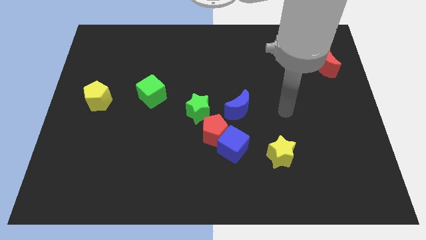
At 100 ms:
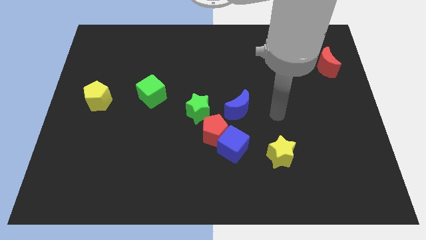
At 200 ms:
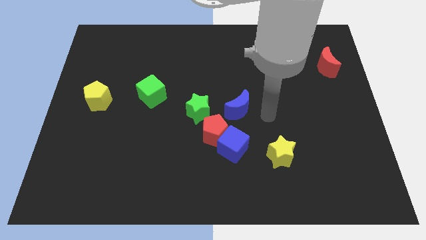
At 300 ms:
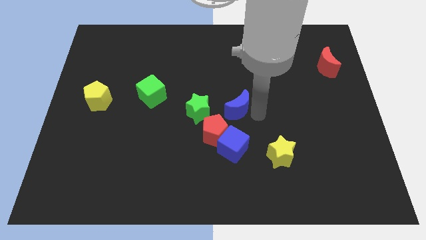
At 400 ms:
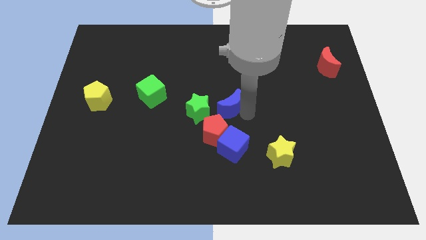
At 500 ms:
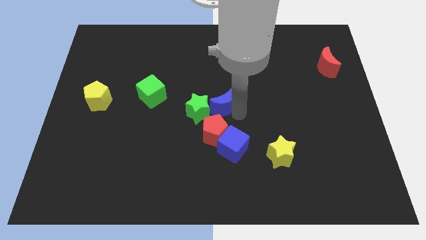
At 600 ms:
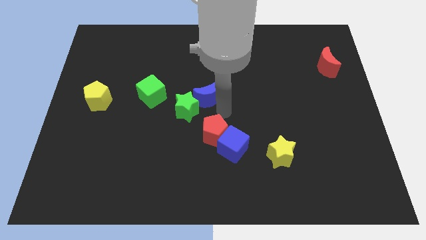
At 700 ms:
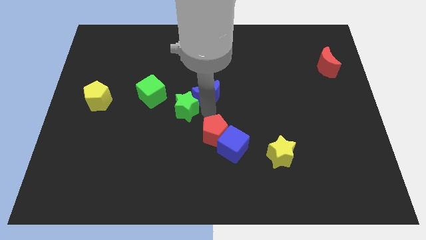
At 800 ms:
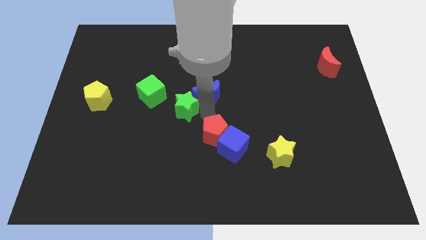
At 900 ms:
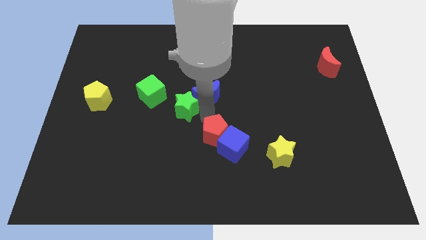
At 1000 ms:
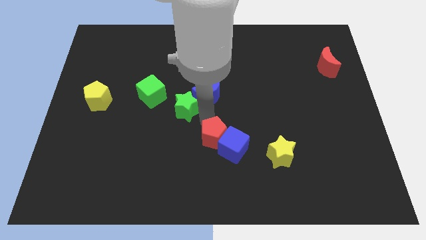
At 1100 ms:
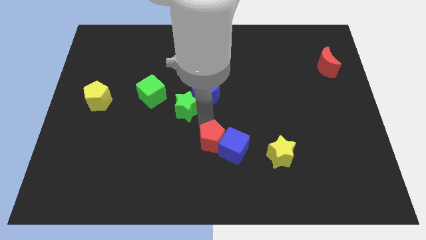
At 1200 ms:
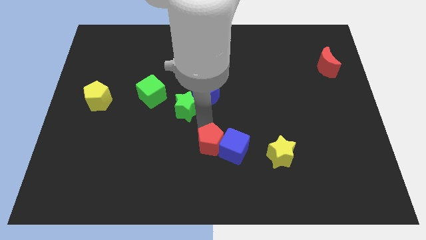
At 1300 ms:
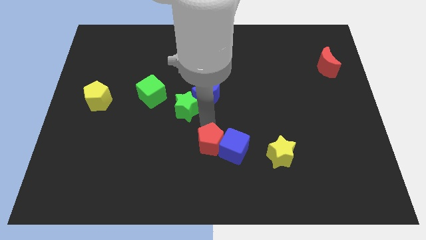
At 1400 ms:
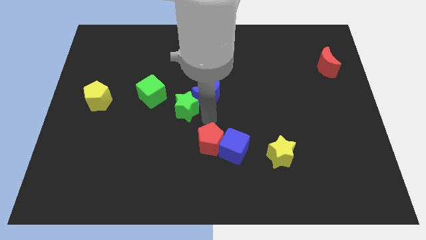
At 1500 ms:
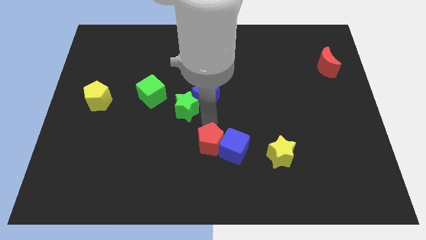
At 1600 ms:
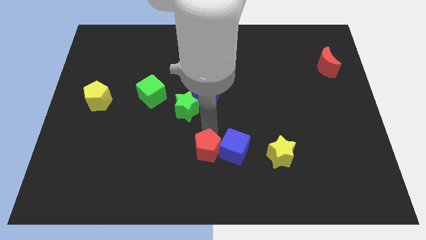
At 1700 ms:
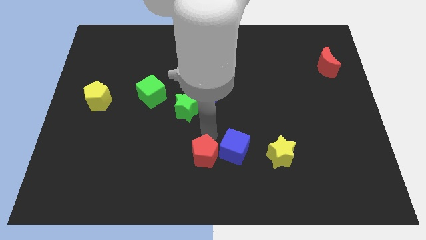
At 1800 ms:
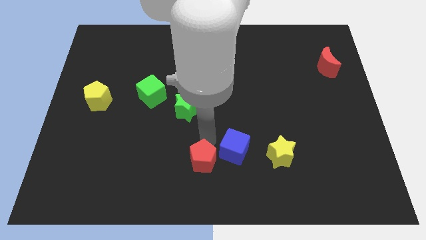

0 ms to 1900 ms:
pull the red pentagon apart from the group

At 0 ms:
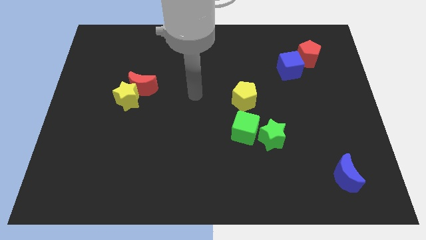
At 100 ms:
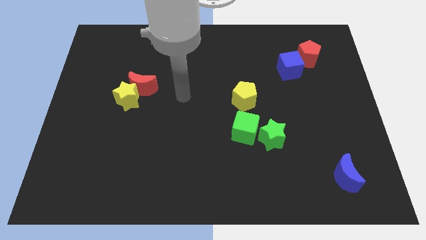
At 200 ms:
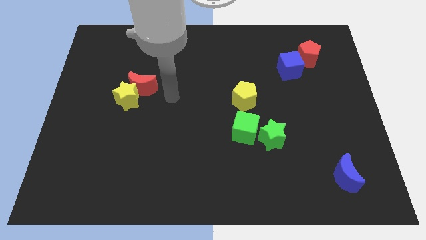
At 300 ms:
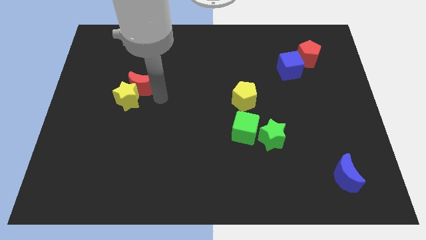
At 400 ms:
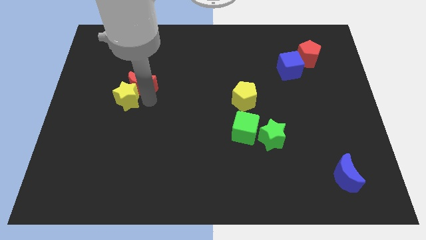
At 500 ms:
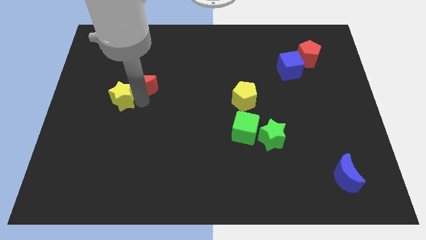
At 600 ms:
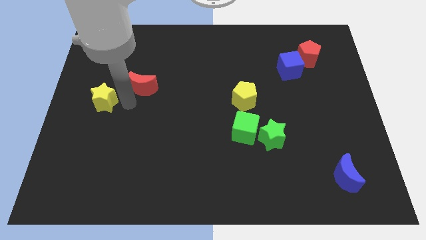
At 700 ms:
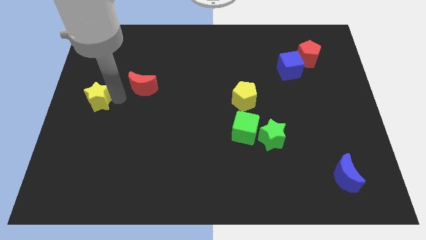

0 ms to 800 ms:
move the red moon away from the yellow star

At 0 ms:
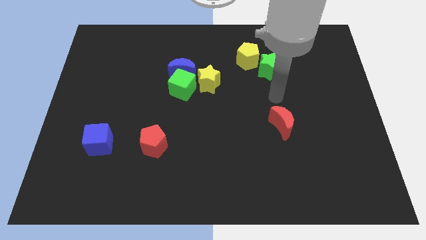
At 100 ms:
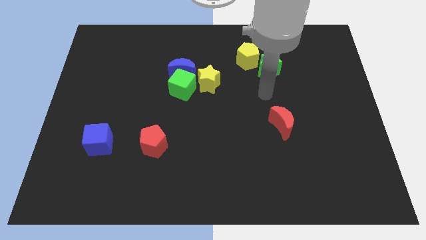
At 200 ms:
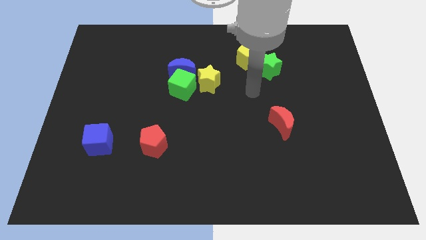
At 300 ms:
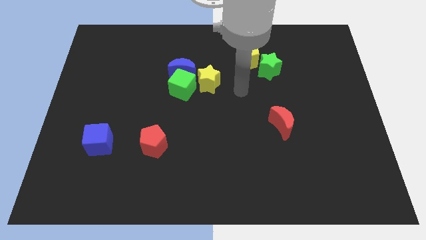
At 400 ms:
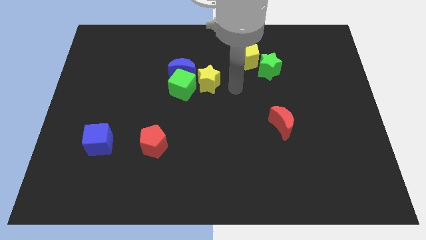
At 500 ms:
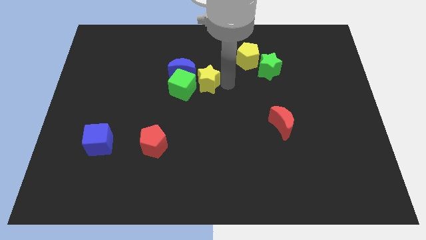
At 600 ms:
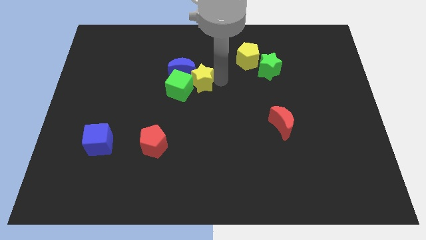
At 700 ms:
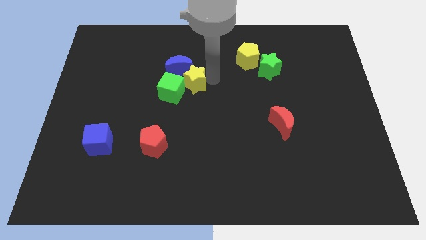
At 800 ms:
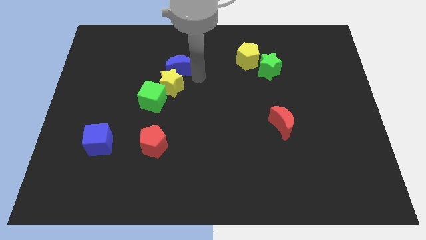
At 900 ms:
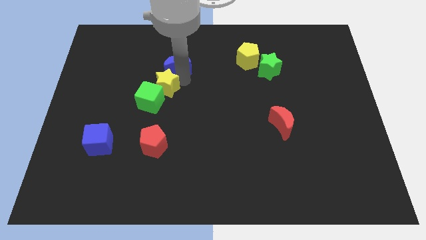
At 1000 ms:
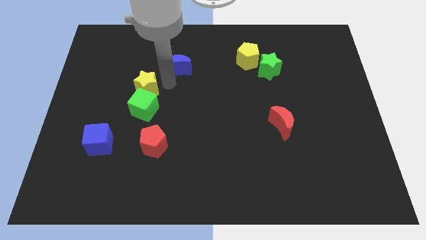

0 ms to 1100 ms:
move the green cube away from the blue moon and yellow star

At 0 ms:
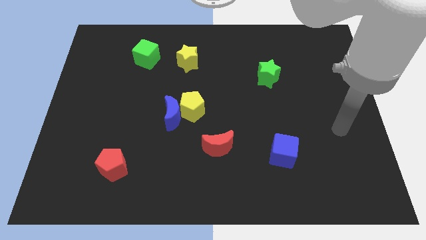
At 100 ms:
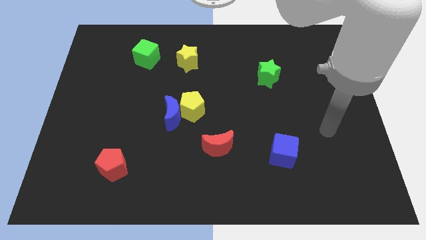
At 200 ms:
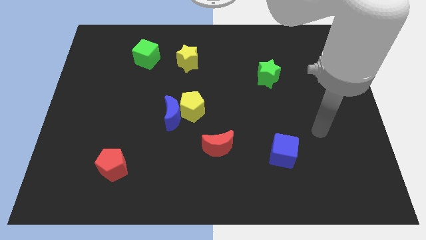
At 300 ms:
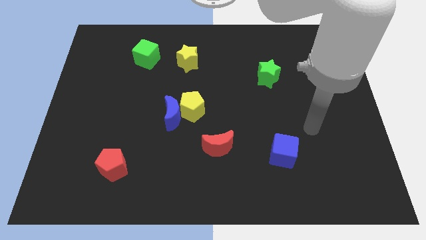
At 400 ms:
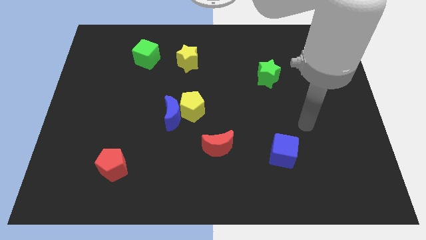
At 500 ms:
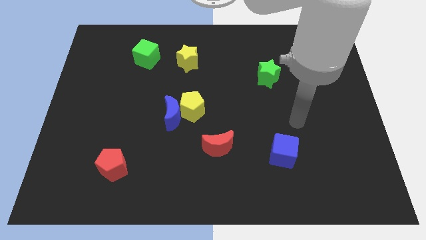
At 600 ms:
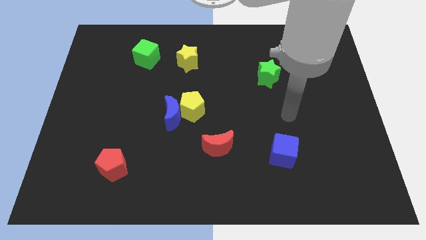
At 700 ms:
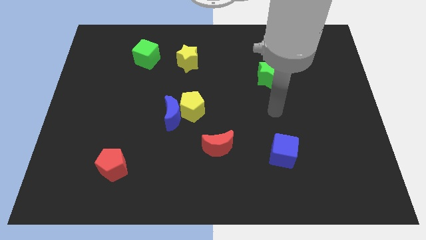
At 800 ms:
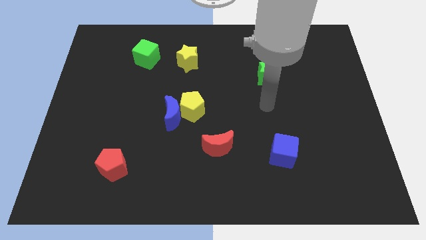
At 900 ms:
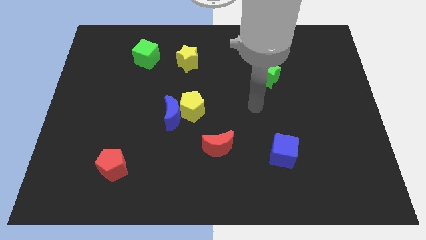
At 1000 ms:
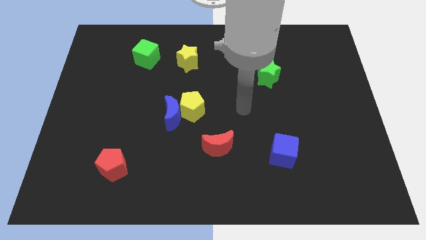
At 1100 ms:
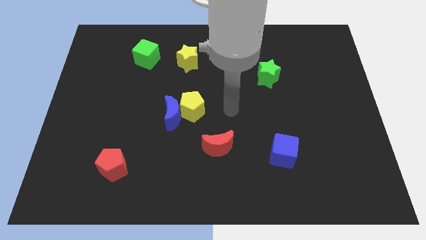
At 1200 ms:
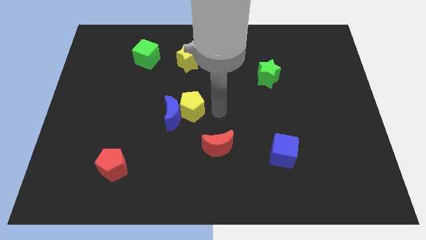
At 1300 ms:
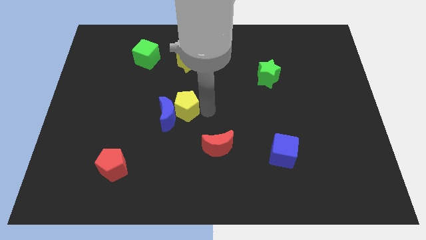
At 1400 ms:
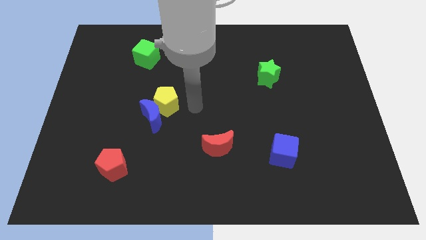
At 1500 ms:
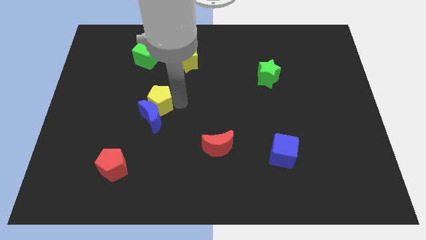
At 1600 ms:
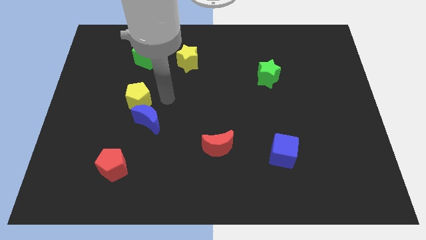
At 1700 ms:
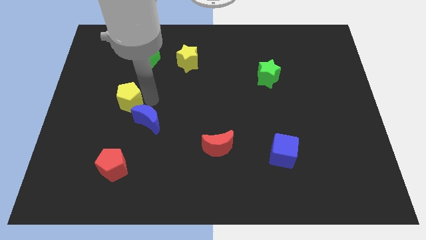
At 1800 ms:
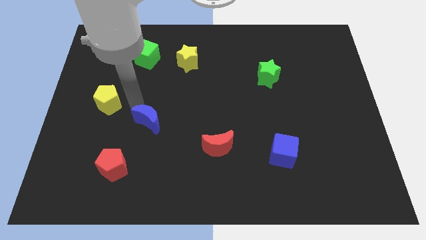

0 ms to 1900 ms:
move the blue moon away from the yellow pentagon

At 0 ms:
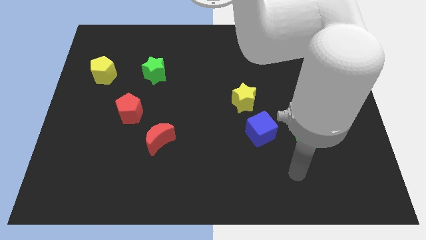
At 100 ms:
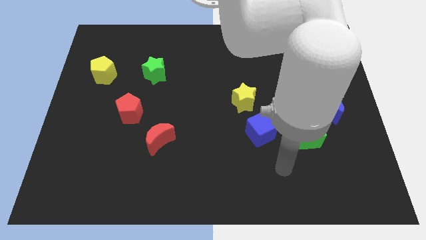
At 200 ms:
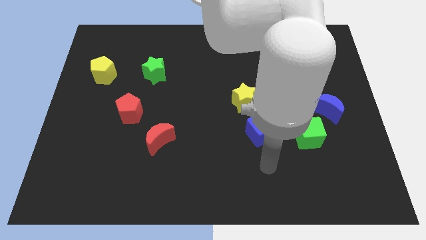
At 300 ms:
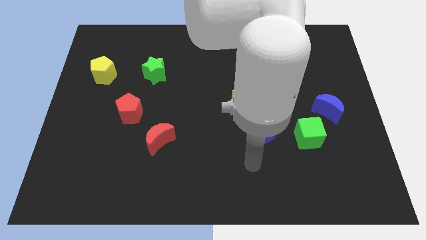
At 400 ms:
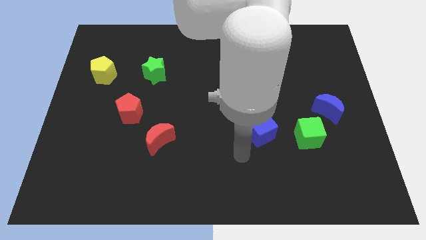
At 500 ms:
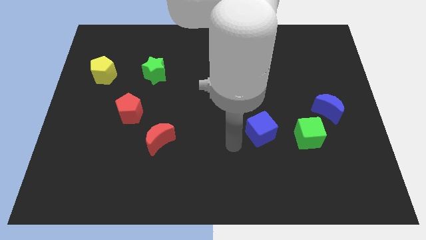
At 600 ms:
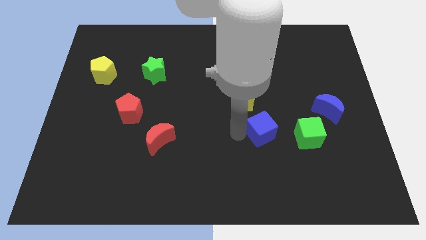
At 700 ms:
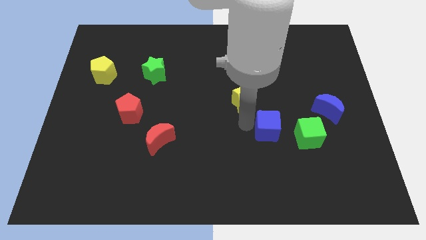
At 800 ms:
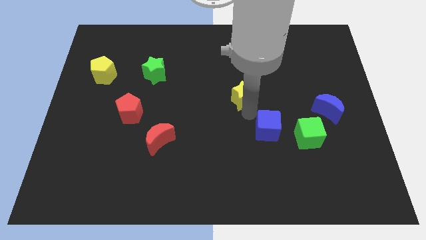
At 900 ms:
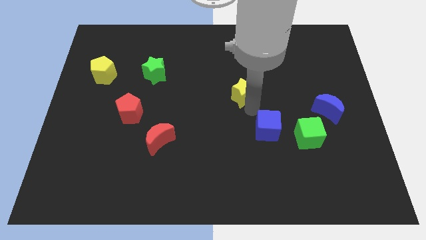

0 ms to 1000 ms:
pull the blue cube apart from the yellow star

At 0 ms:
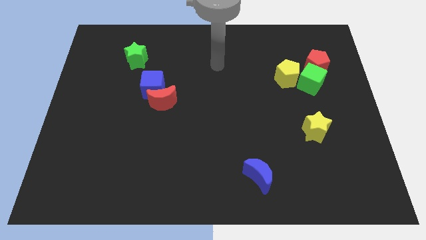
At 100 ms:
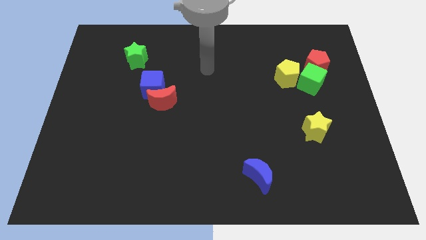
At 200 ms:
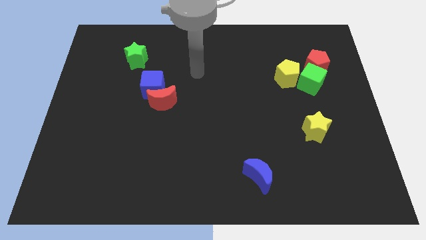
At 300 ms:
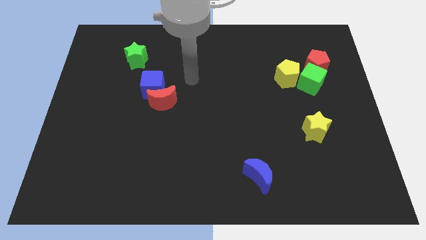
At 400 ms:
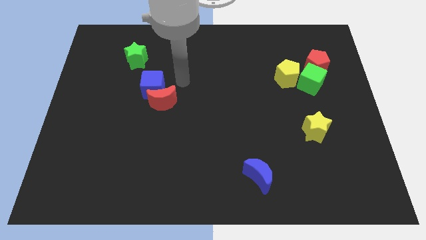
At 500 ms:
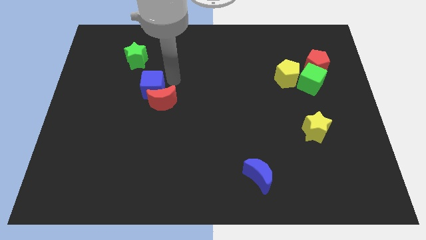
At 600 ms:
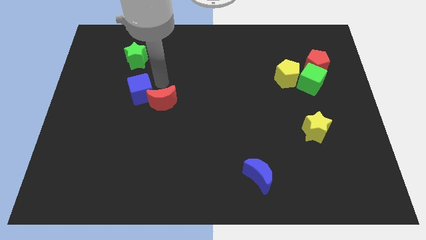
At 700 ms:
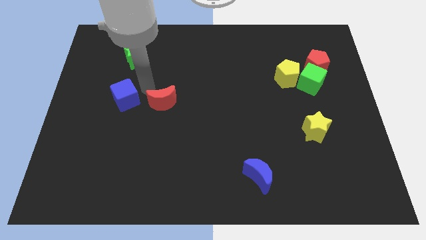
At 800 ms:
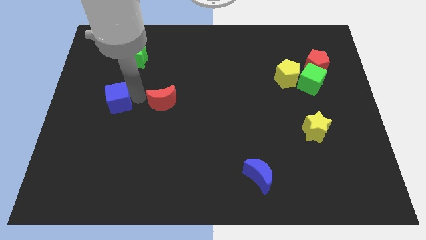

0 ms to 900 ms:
separate the red moon from the blue cube

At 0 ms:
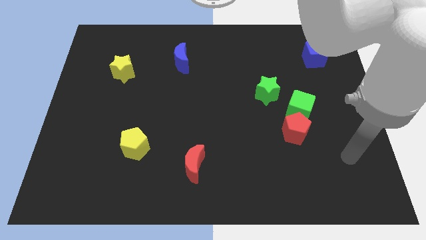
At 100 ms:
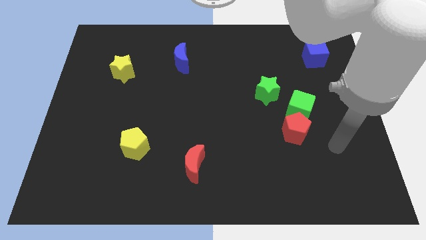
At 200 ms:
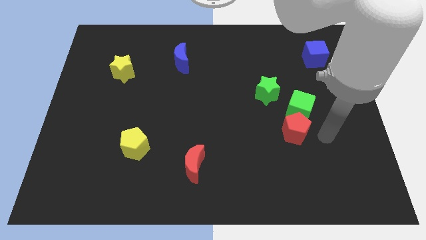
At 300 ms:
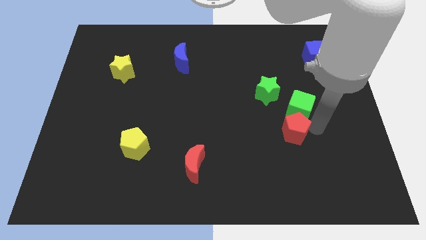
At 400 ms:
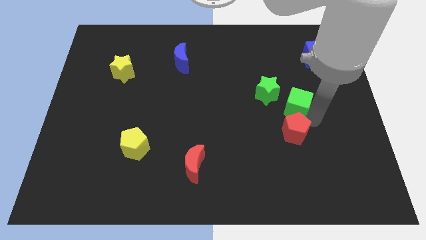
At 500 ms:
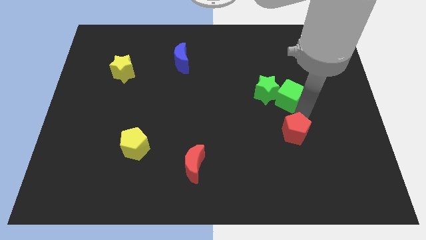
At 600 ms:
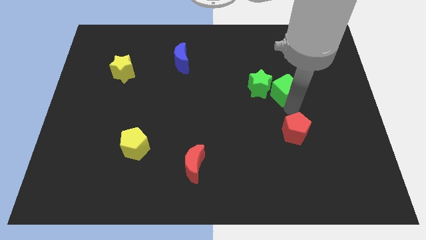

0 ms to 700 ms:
move the red pentagon away from the green cube

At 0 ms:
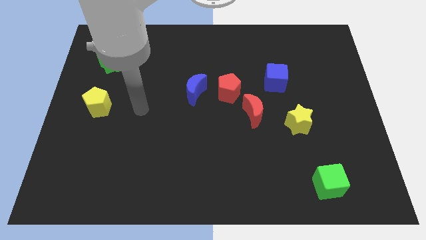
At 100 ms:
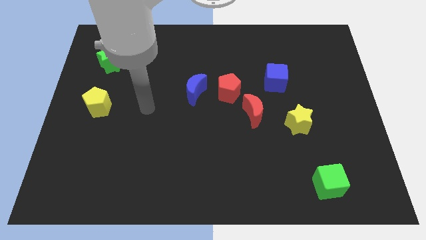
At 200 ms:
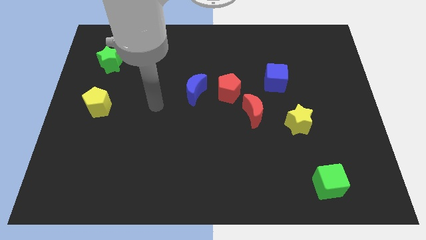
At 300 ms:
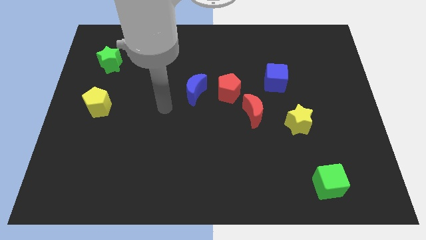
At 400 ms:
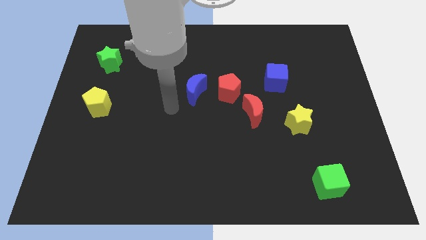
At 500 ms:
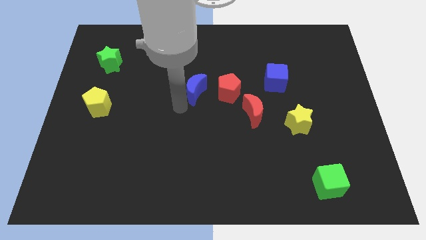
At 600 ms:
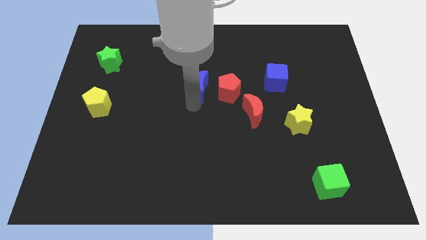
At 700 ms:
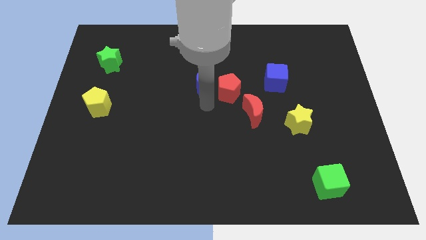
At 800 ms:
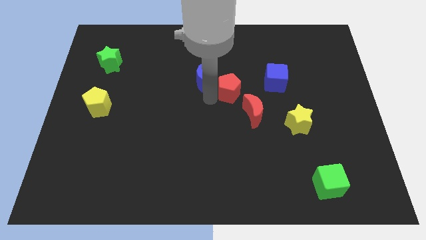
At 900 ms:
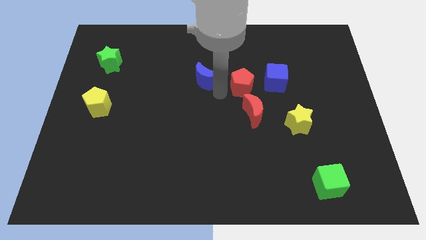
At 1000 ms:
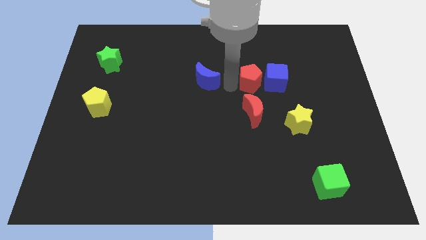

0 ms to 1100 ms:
pull the blue moon apart from the red pentagon
